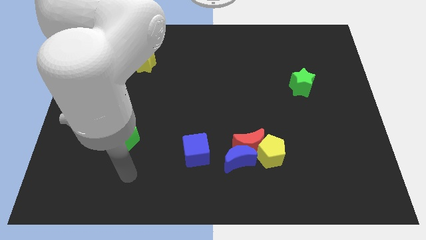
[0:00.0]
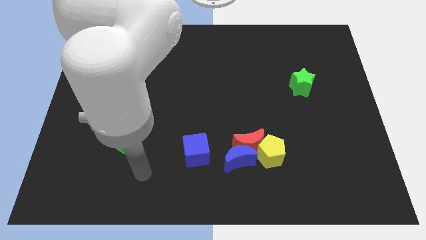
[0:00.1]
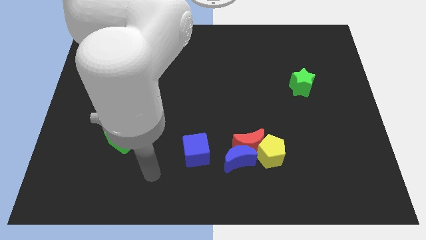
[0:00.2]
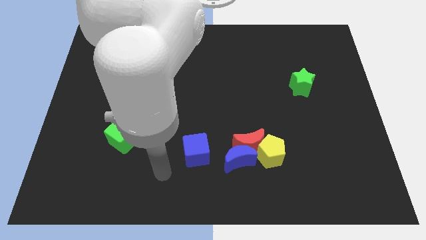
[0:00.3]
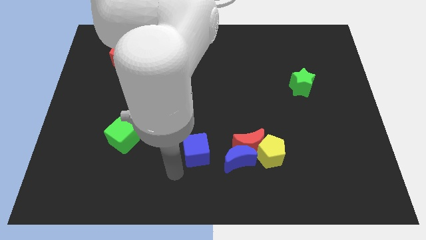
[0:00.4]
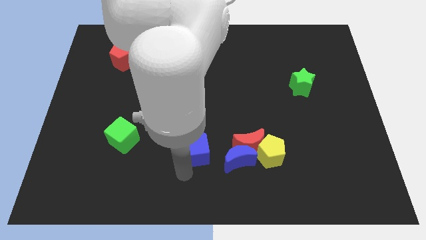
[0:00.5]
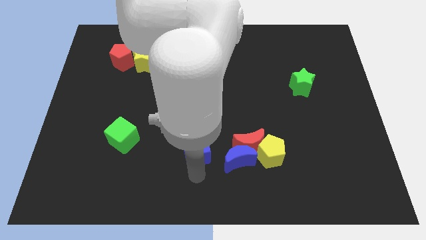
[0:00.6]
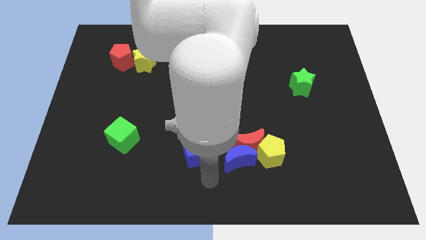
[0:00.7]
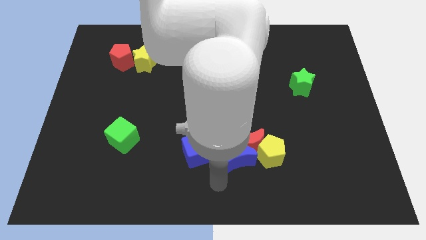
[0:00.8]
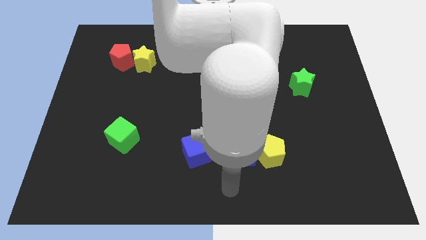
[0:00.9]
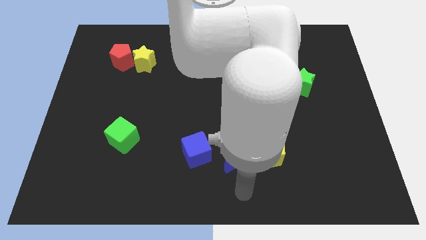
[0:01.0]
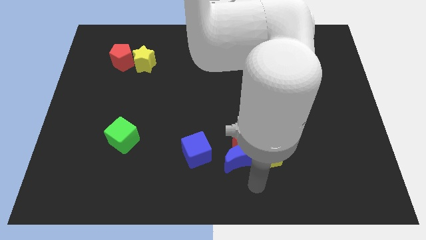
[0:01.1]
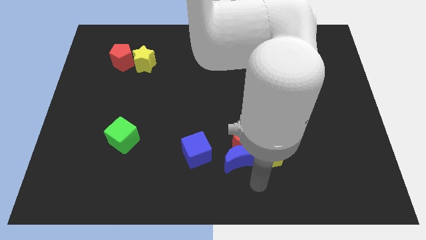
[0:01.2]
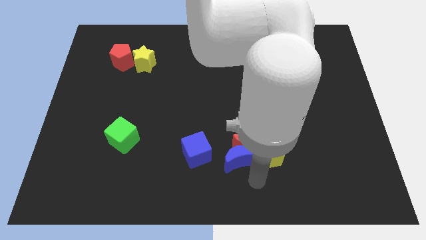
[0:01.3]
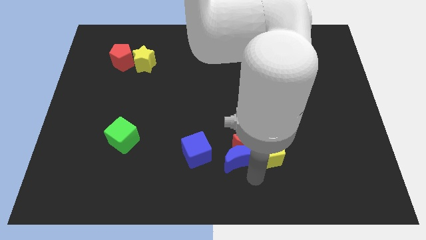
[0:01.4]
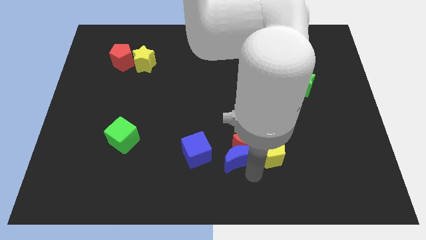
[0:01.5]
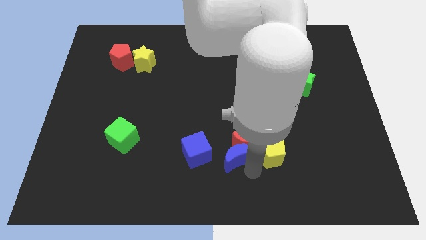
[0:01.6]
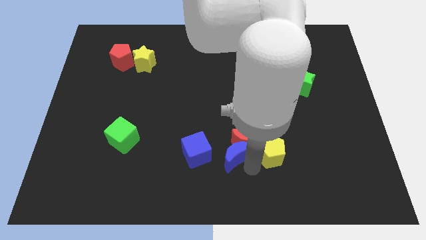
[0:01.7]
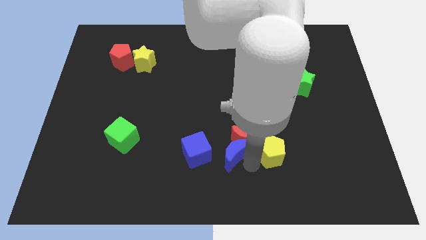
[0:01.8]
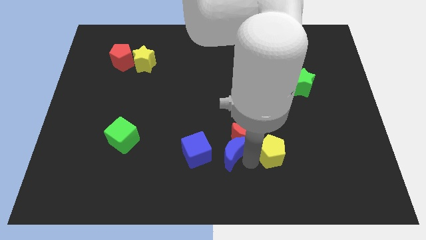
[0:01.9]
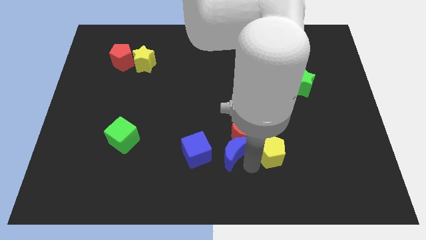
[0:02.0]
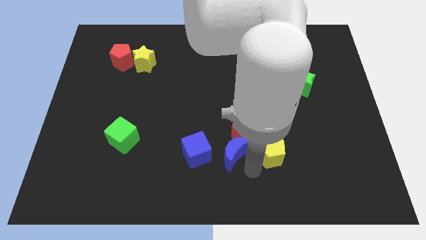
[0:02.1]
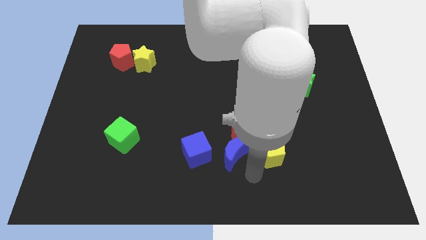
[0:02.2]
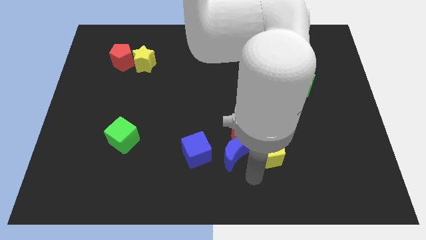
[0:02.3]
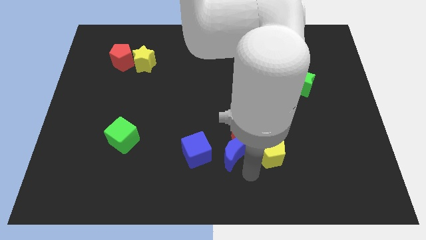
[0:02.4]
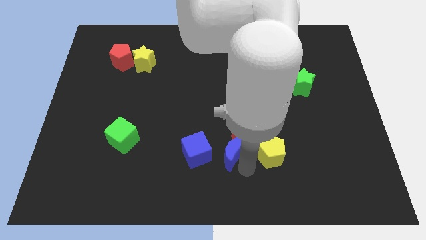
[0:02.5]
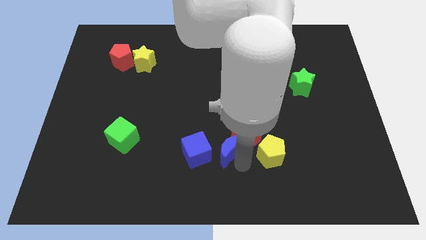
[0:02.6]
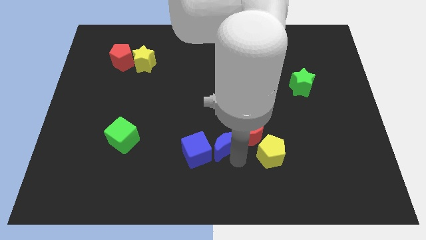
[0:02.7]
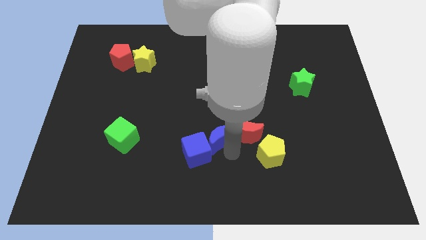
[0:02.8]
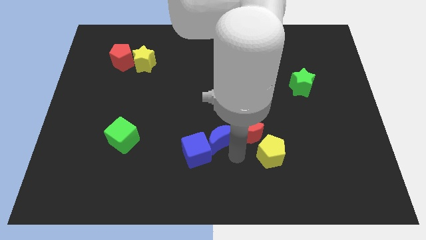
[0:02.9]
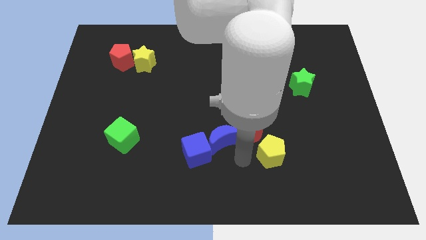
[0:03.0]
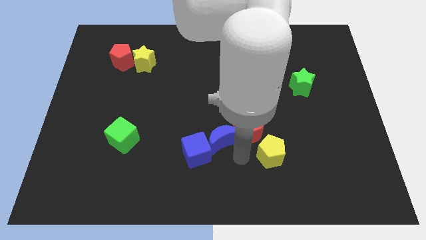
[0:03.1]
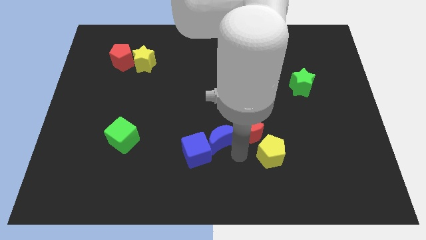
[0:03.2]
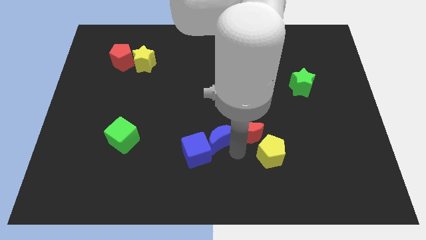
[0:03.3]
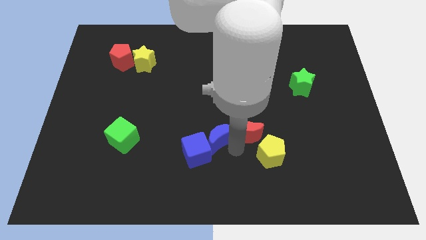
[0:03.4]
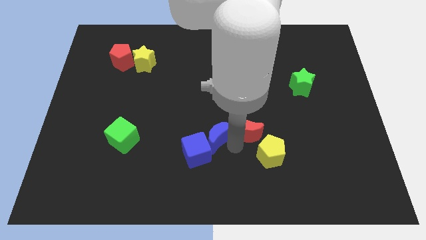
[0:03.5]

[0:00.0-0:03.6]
move the blue moon up and left somewhat

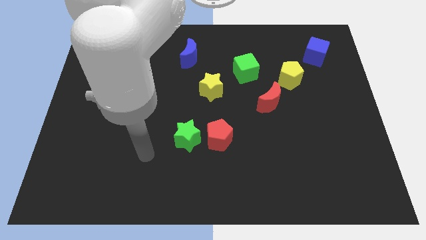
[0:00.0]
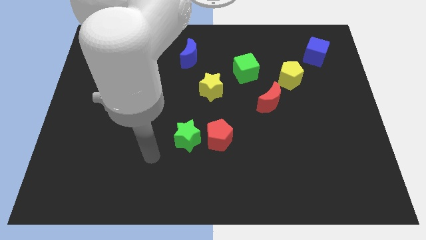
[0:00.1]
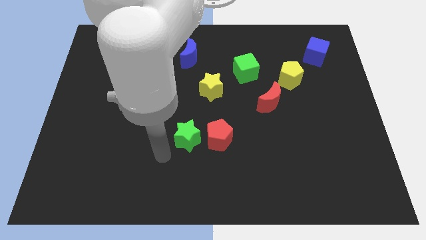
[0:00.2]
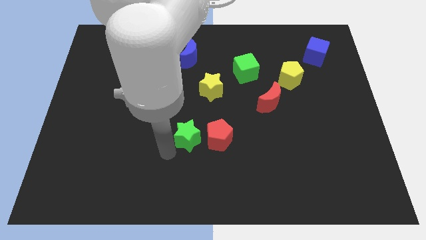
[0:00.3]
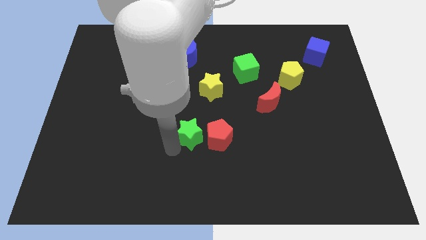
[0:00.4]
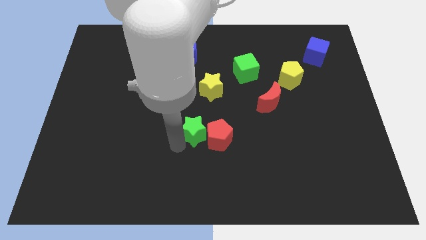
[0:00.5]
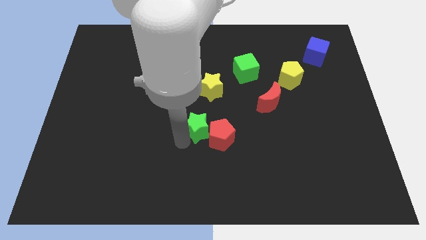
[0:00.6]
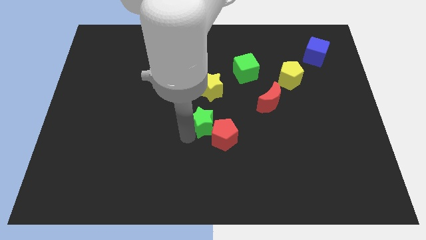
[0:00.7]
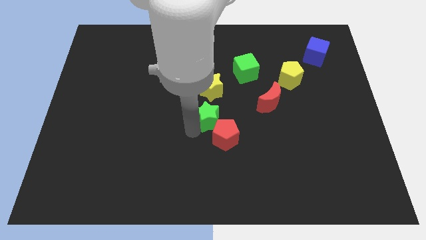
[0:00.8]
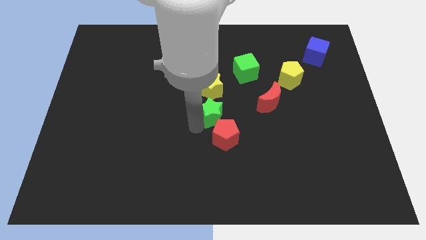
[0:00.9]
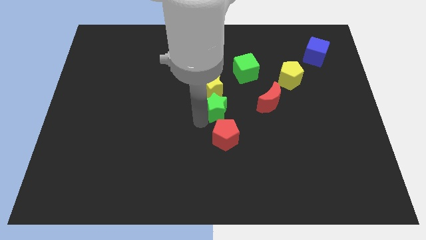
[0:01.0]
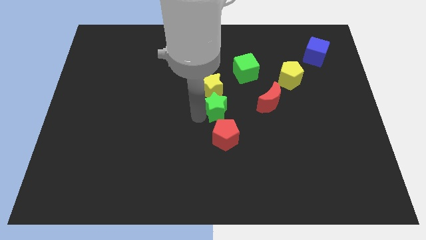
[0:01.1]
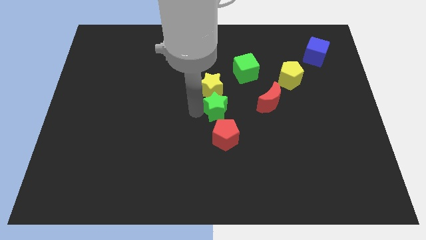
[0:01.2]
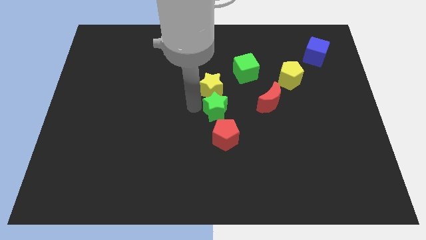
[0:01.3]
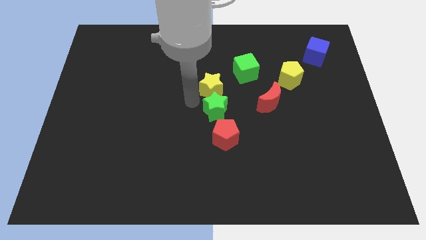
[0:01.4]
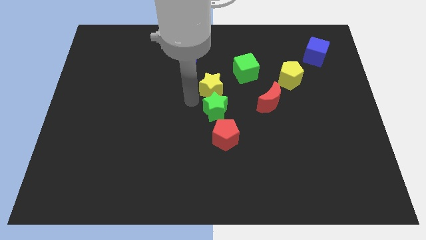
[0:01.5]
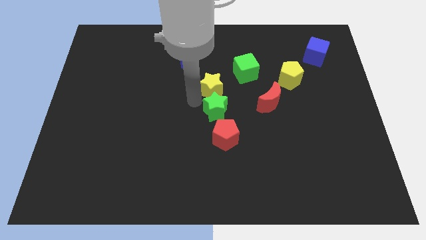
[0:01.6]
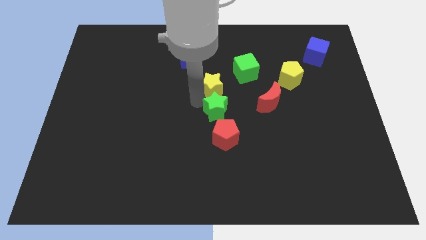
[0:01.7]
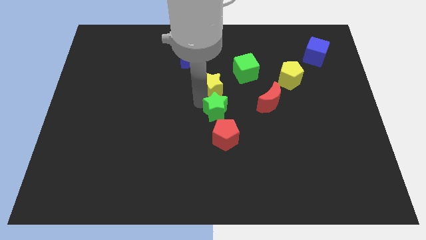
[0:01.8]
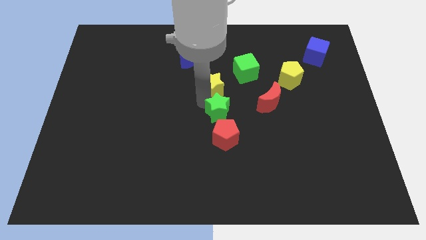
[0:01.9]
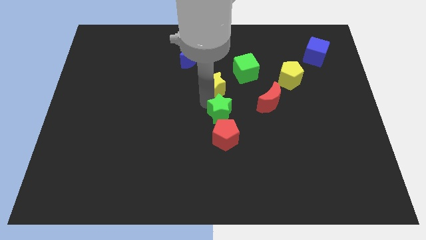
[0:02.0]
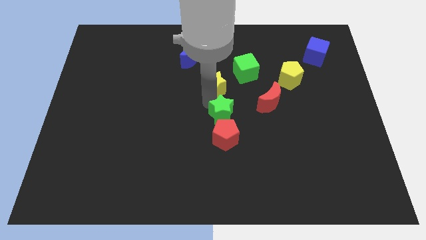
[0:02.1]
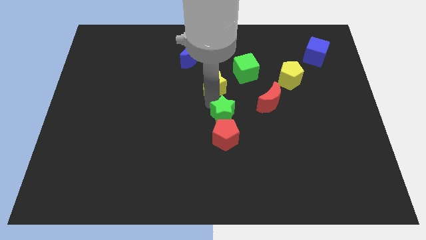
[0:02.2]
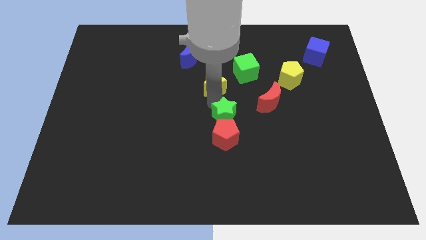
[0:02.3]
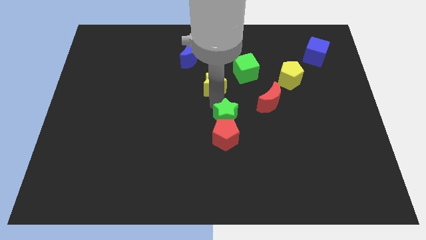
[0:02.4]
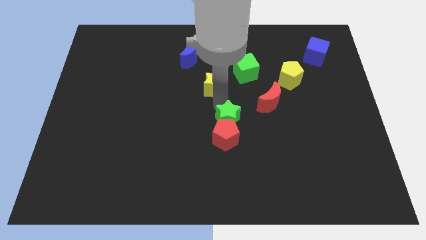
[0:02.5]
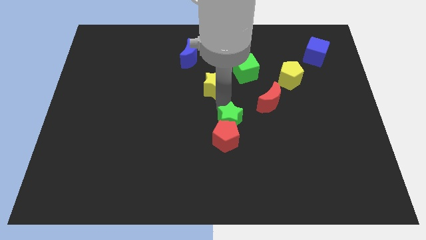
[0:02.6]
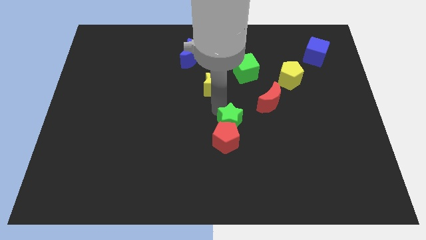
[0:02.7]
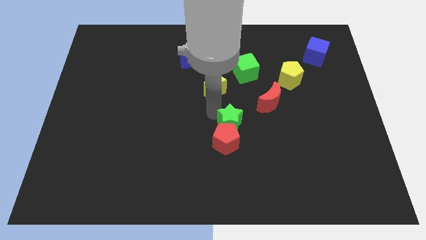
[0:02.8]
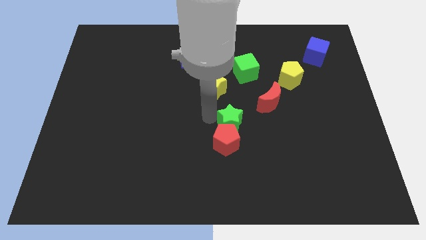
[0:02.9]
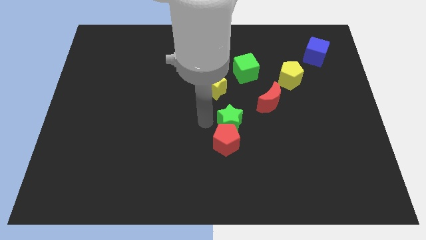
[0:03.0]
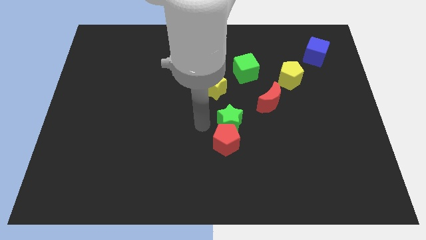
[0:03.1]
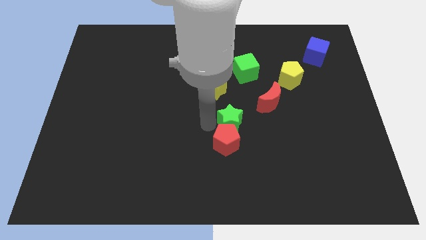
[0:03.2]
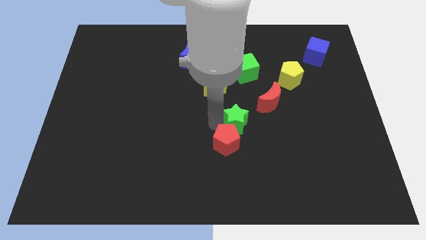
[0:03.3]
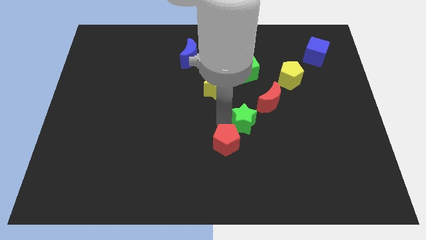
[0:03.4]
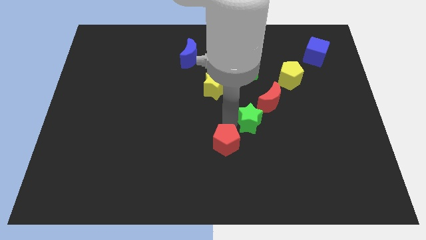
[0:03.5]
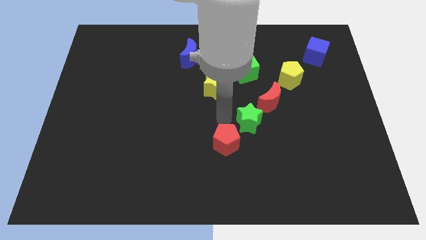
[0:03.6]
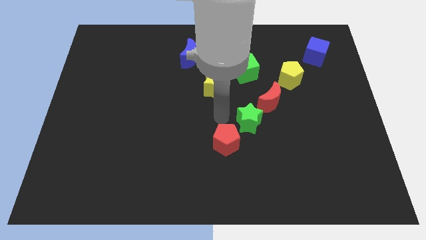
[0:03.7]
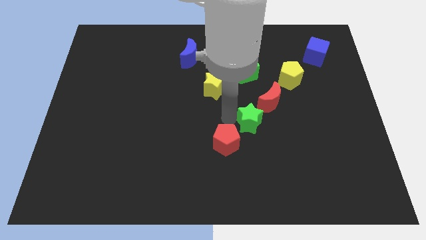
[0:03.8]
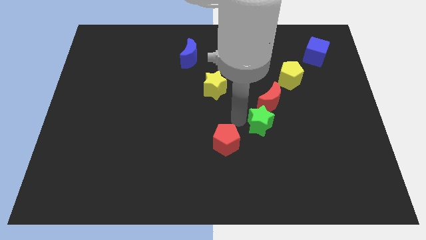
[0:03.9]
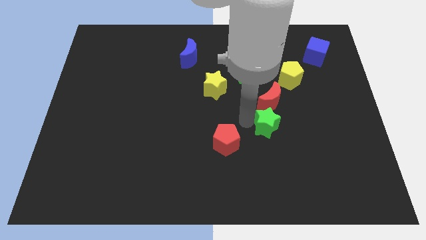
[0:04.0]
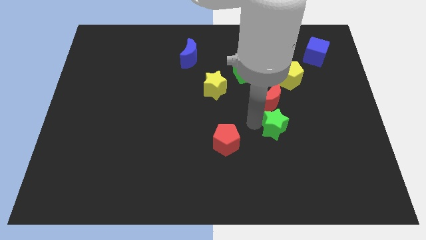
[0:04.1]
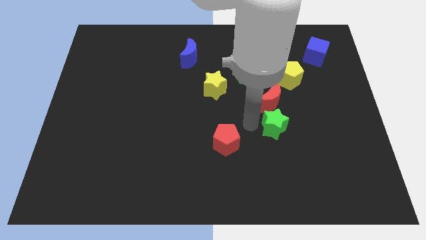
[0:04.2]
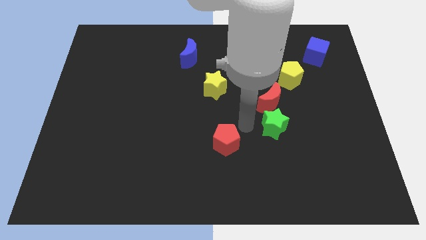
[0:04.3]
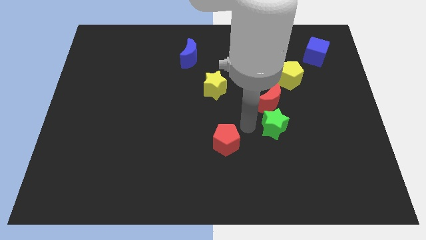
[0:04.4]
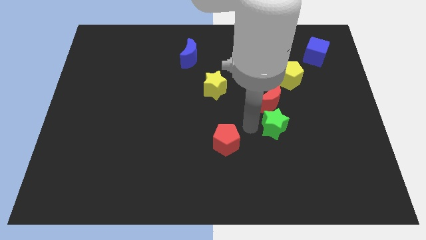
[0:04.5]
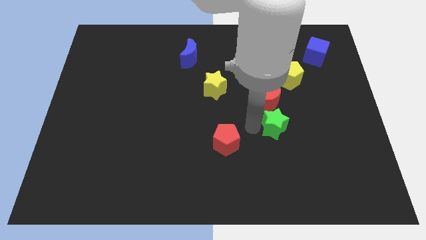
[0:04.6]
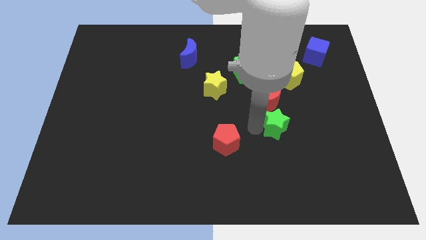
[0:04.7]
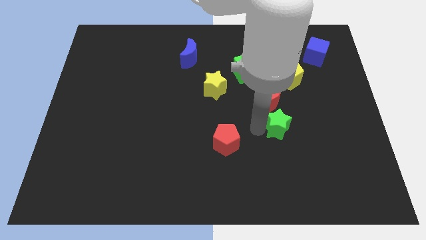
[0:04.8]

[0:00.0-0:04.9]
slide the green star right
